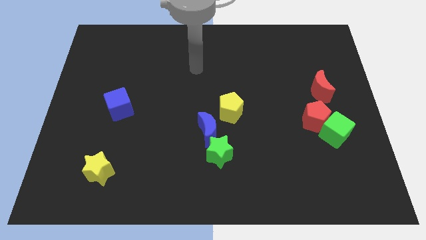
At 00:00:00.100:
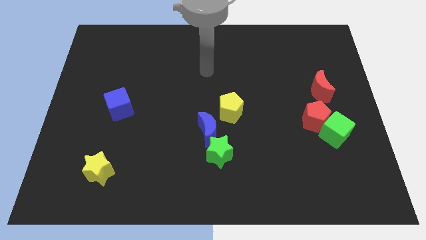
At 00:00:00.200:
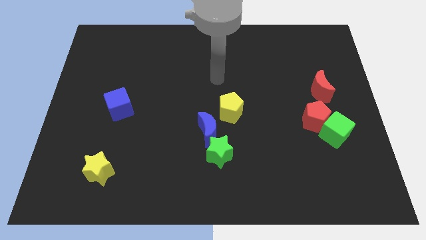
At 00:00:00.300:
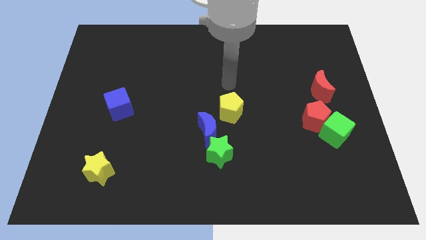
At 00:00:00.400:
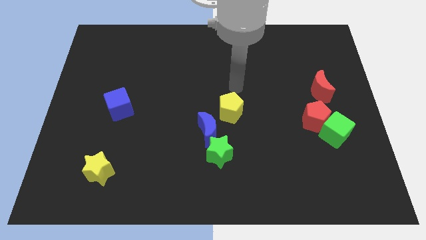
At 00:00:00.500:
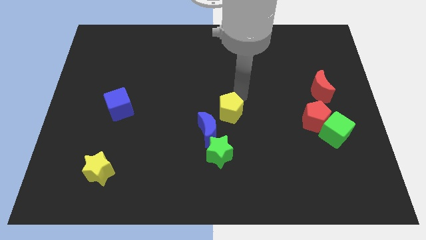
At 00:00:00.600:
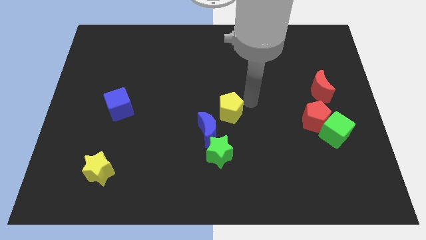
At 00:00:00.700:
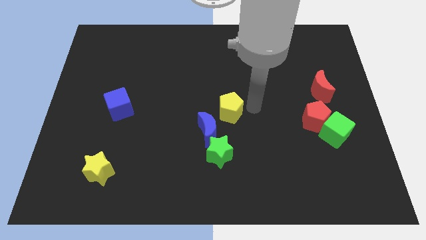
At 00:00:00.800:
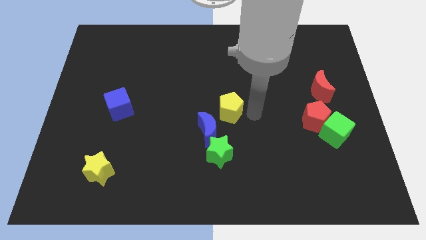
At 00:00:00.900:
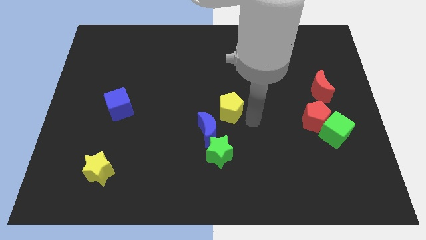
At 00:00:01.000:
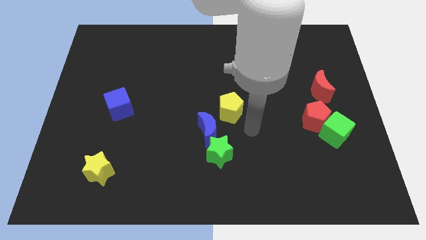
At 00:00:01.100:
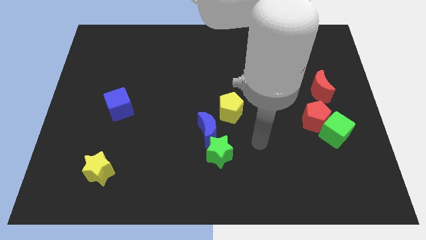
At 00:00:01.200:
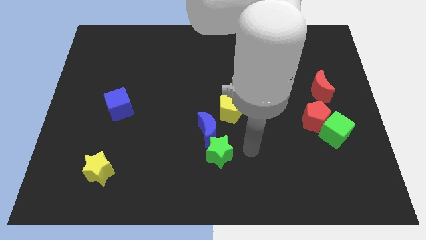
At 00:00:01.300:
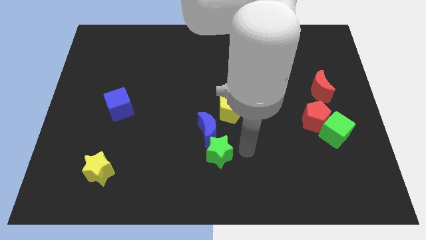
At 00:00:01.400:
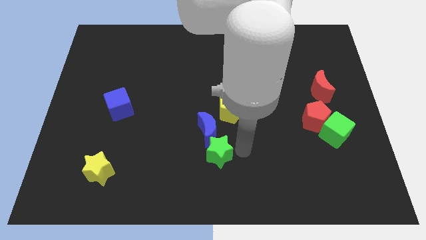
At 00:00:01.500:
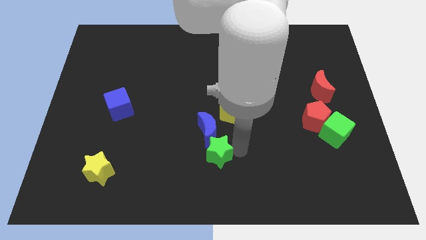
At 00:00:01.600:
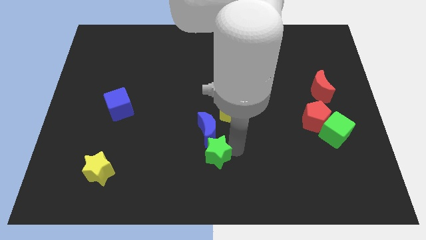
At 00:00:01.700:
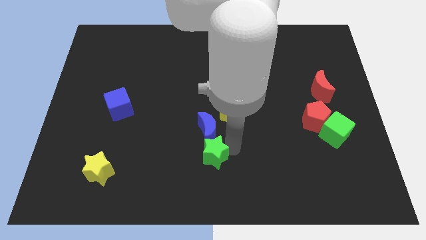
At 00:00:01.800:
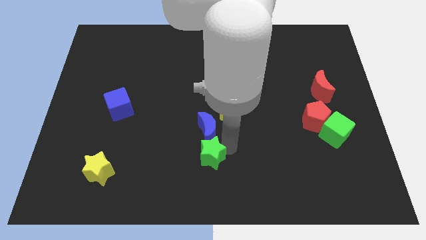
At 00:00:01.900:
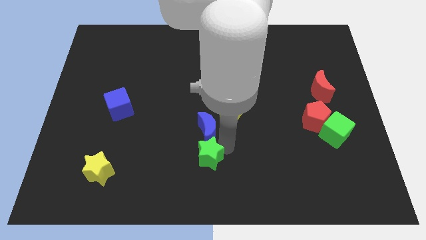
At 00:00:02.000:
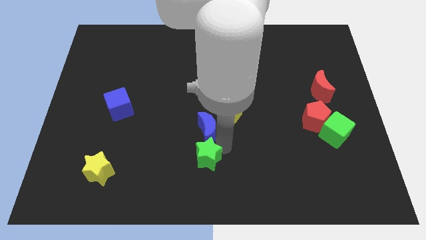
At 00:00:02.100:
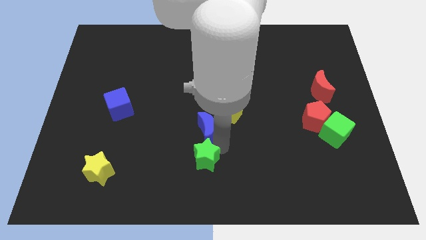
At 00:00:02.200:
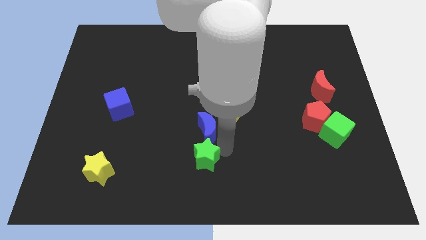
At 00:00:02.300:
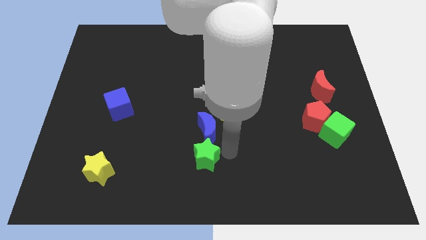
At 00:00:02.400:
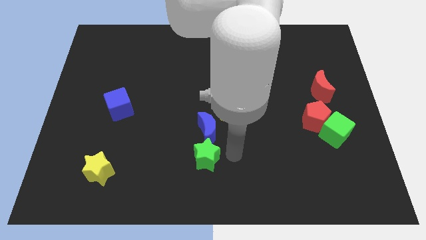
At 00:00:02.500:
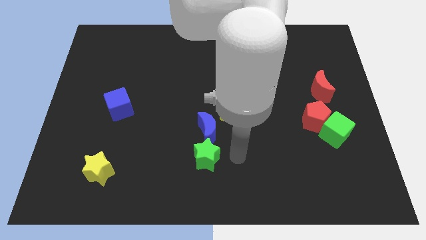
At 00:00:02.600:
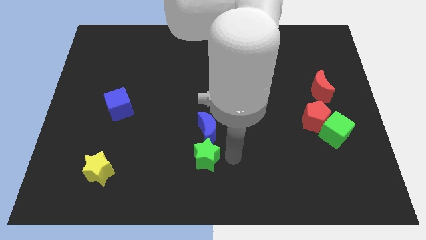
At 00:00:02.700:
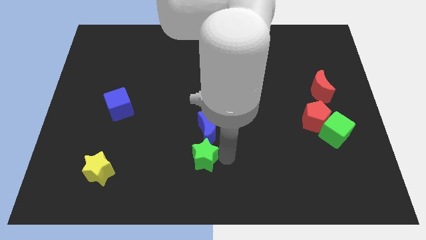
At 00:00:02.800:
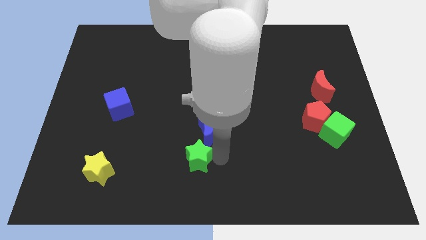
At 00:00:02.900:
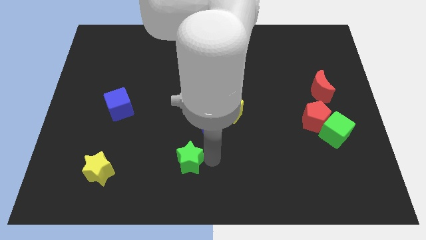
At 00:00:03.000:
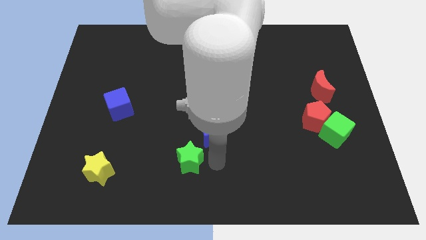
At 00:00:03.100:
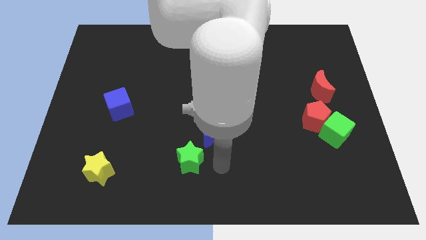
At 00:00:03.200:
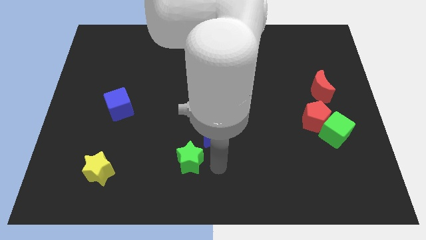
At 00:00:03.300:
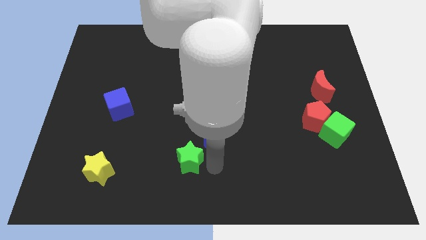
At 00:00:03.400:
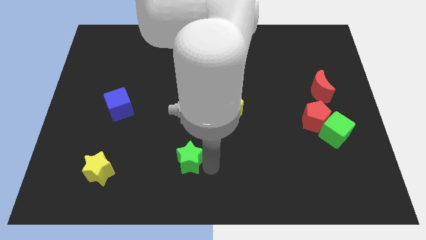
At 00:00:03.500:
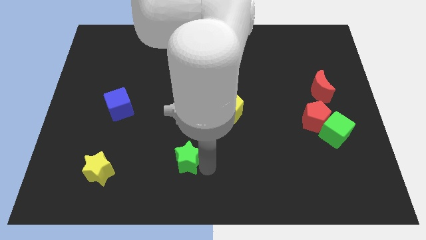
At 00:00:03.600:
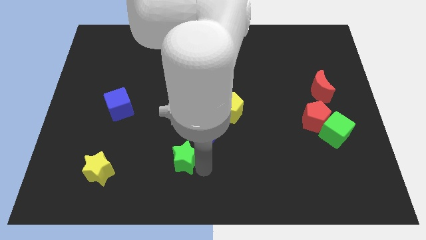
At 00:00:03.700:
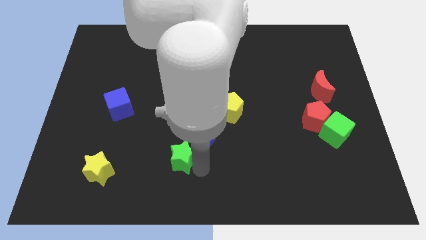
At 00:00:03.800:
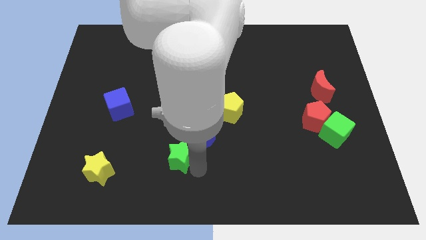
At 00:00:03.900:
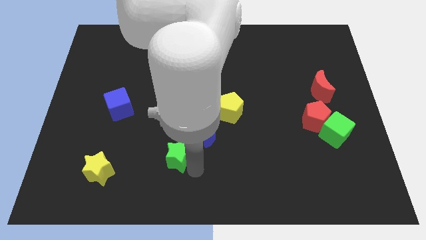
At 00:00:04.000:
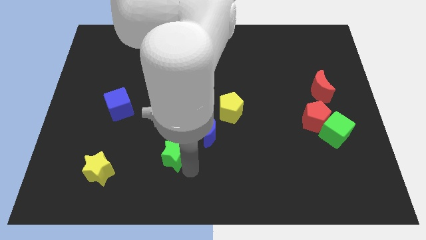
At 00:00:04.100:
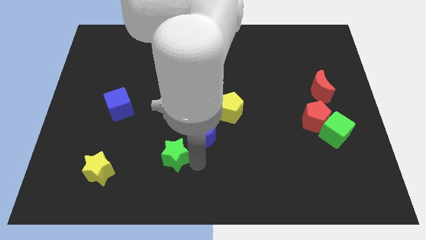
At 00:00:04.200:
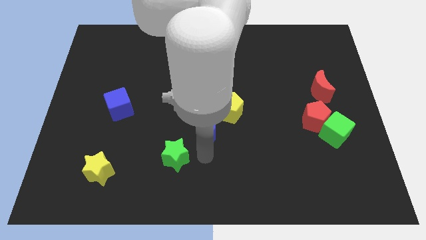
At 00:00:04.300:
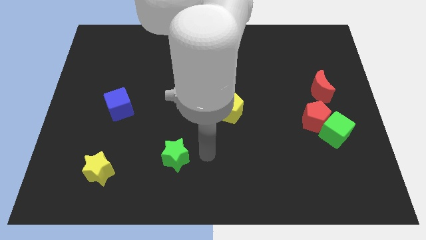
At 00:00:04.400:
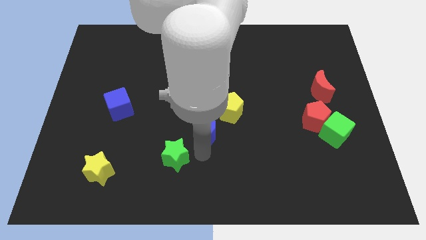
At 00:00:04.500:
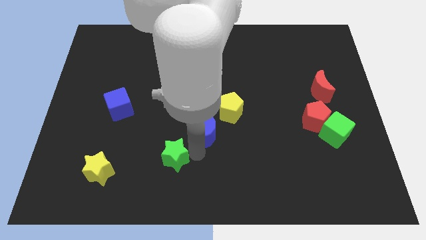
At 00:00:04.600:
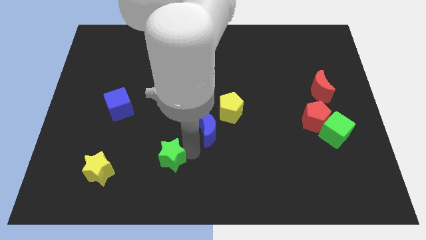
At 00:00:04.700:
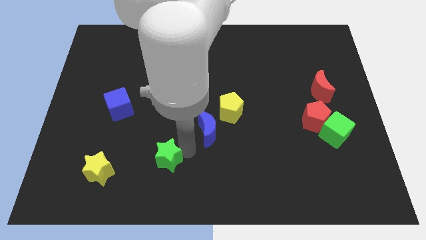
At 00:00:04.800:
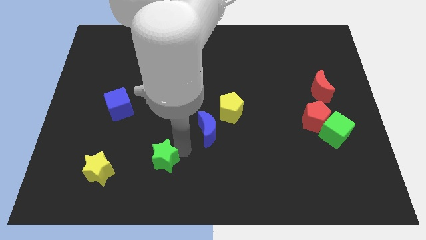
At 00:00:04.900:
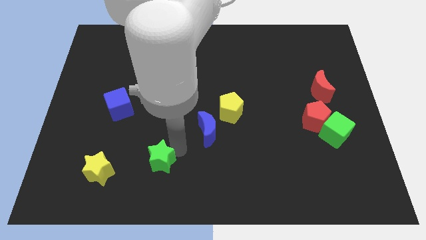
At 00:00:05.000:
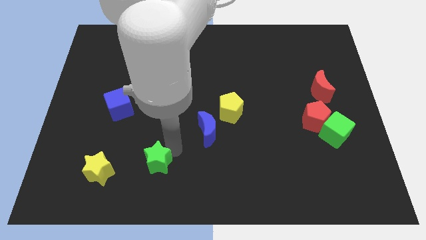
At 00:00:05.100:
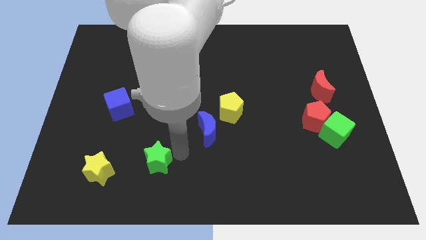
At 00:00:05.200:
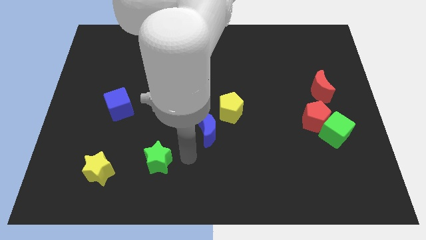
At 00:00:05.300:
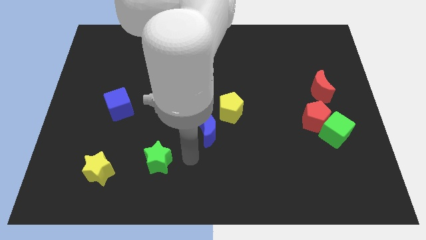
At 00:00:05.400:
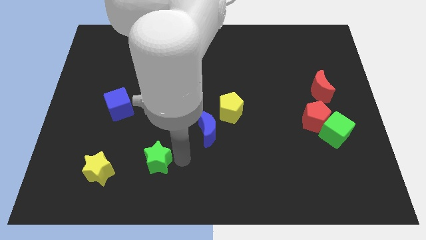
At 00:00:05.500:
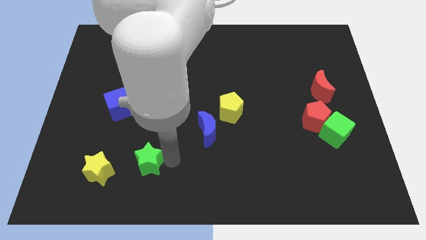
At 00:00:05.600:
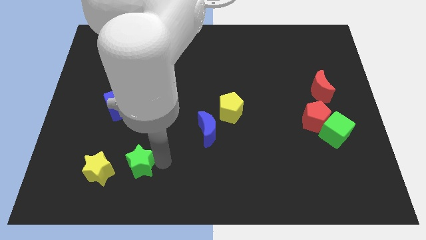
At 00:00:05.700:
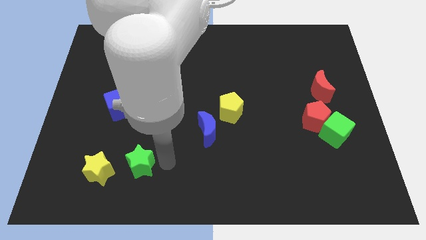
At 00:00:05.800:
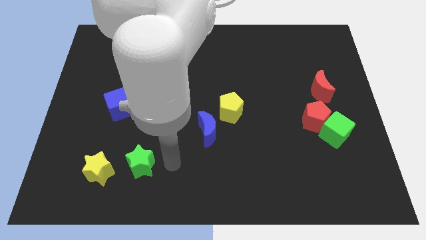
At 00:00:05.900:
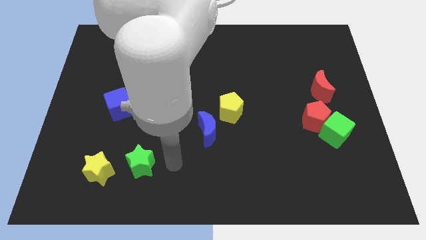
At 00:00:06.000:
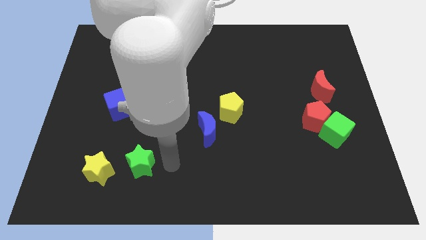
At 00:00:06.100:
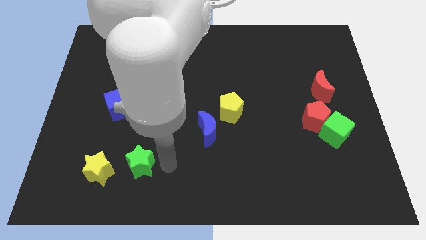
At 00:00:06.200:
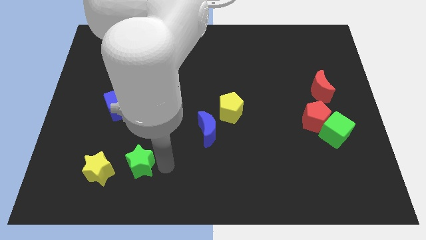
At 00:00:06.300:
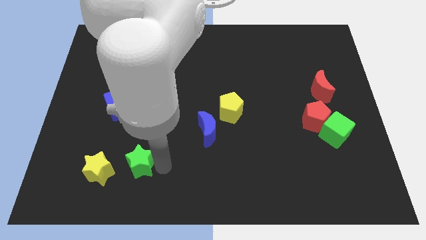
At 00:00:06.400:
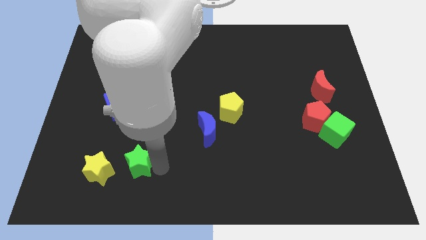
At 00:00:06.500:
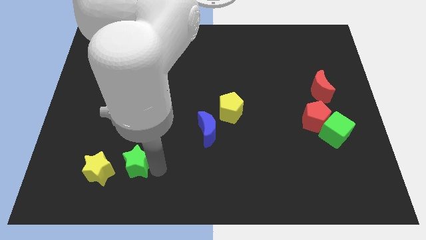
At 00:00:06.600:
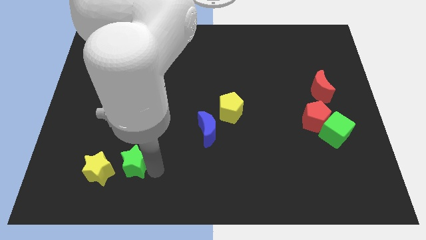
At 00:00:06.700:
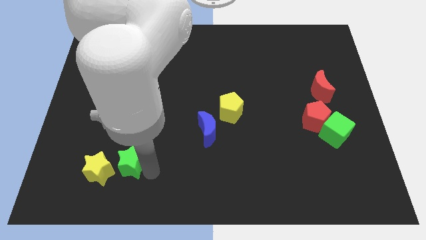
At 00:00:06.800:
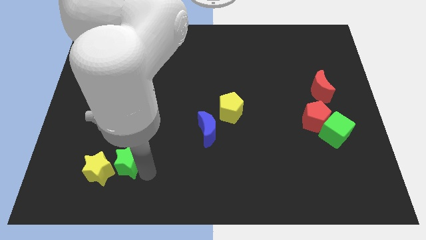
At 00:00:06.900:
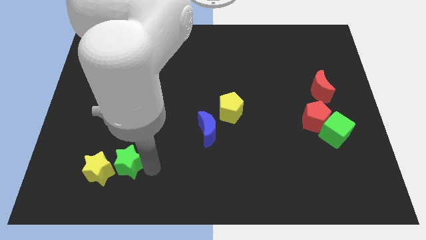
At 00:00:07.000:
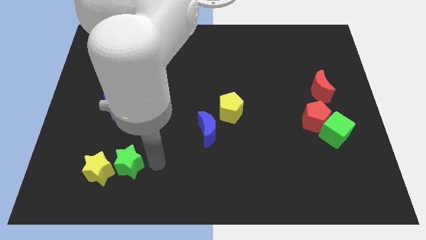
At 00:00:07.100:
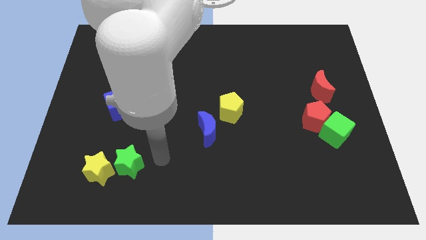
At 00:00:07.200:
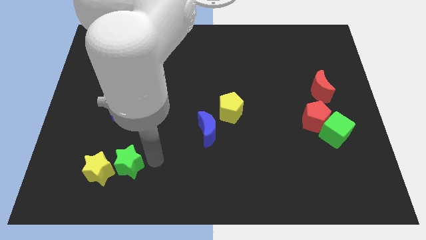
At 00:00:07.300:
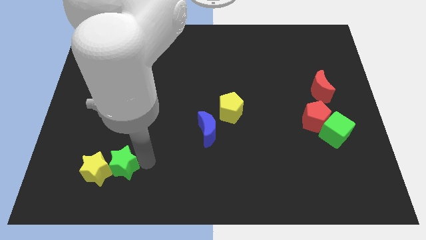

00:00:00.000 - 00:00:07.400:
move the green star towards the yellow star

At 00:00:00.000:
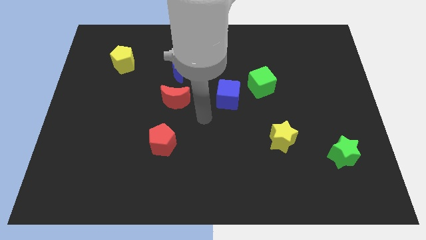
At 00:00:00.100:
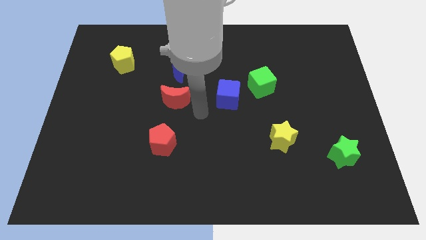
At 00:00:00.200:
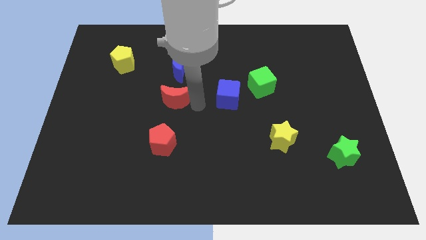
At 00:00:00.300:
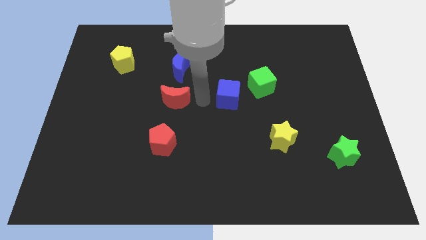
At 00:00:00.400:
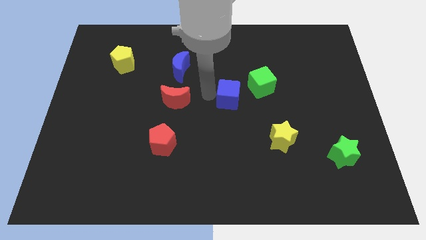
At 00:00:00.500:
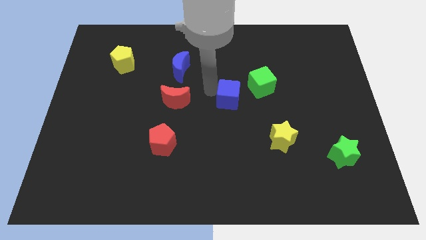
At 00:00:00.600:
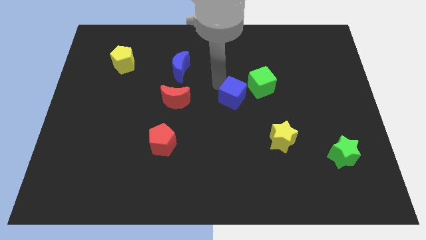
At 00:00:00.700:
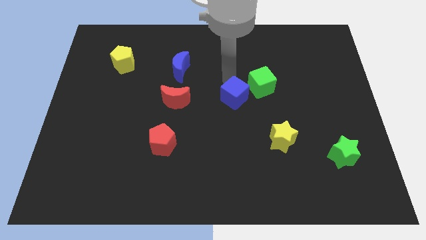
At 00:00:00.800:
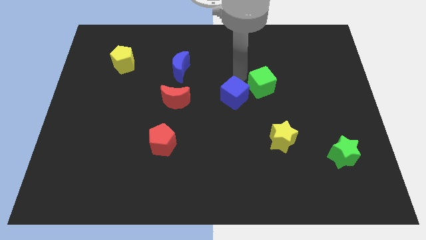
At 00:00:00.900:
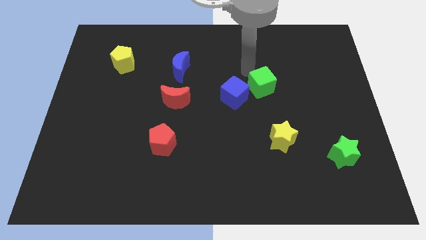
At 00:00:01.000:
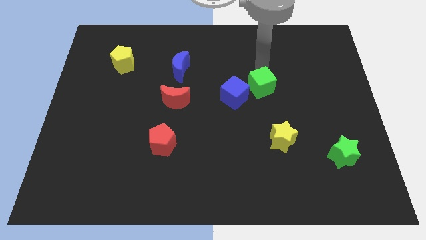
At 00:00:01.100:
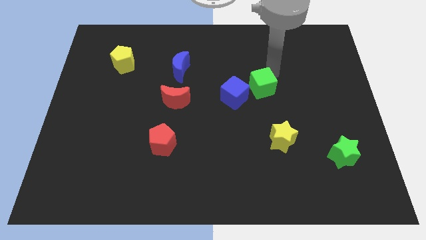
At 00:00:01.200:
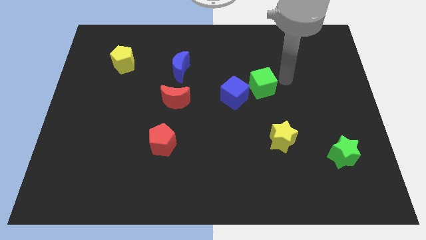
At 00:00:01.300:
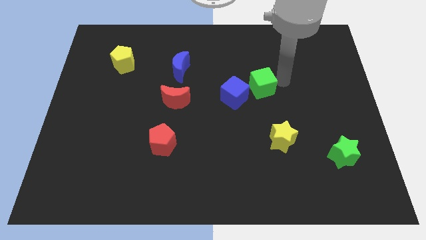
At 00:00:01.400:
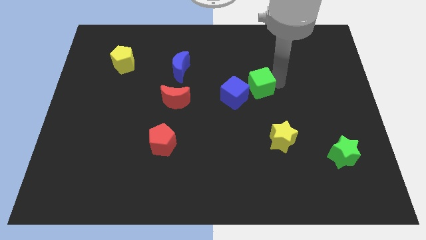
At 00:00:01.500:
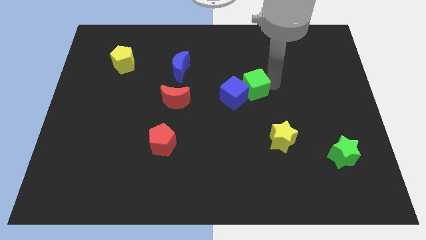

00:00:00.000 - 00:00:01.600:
move the green cube towards the blue cube
